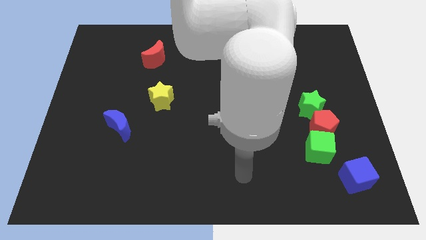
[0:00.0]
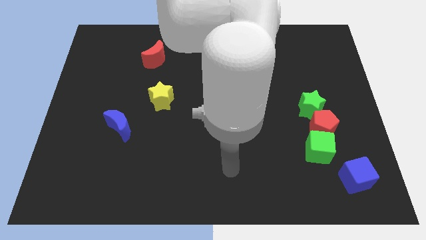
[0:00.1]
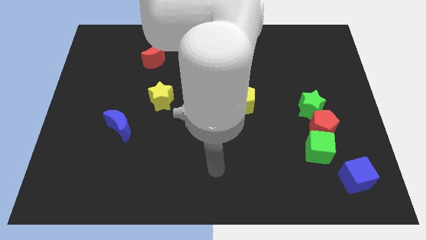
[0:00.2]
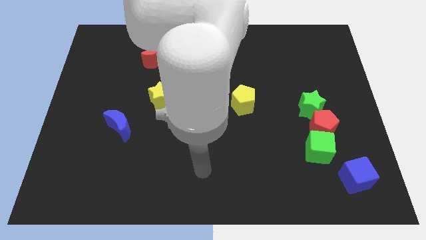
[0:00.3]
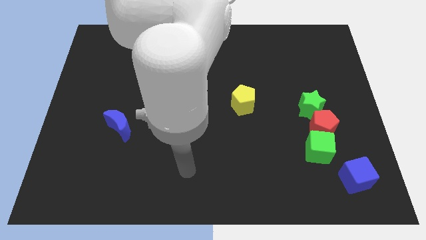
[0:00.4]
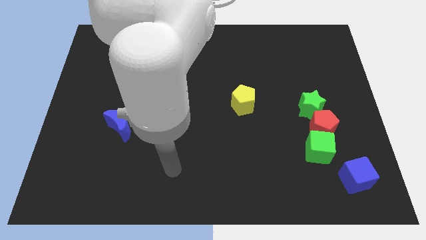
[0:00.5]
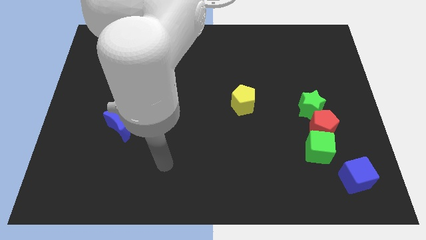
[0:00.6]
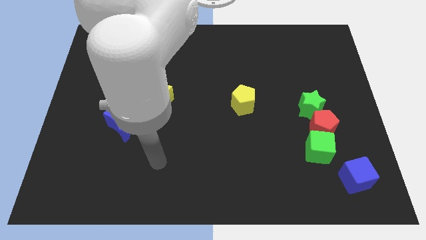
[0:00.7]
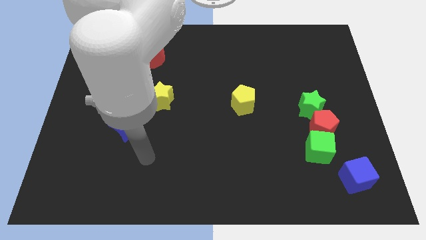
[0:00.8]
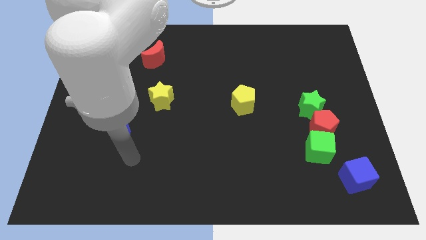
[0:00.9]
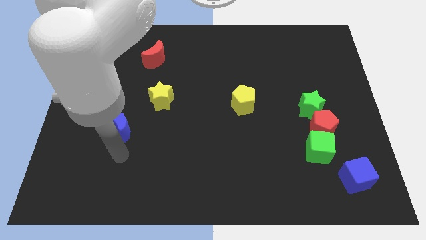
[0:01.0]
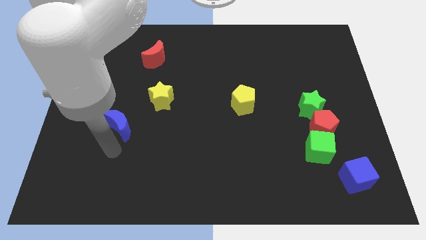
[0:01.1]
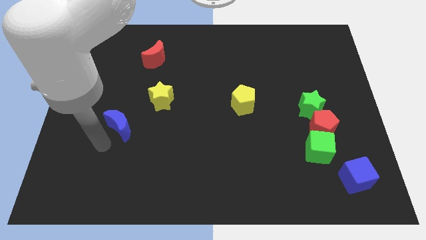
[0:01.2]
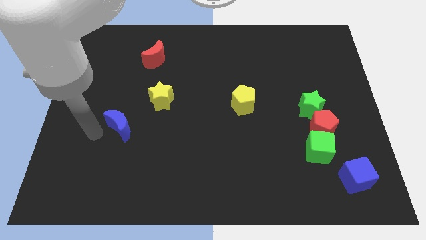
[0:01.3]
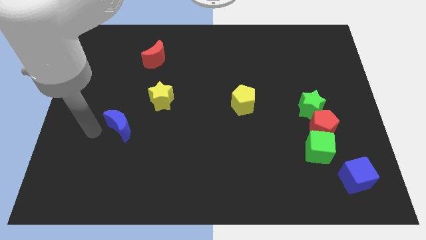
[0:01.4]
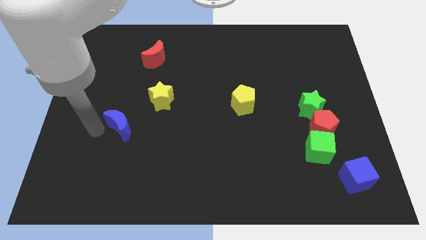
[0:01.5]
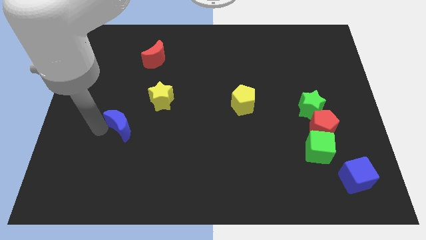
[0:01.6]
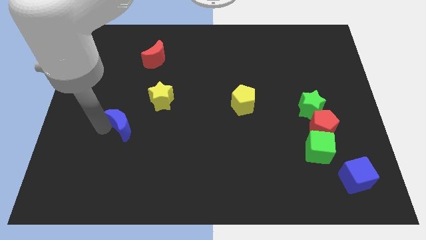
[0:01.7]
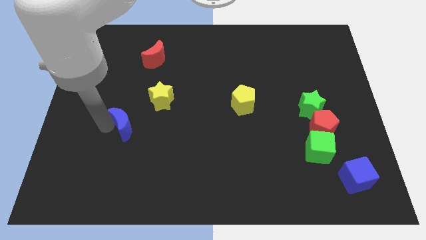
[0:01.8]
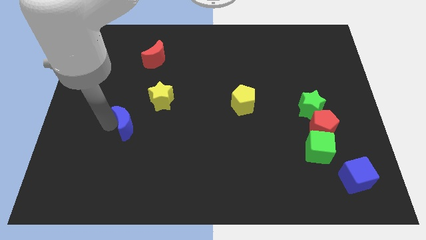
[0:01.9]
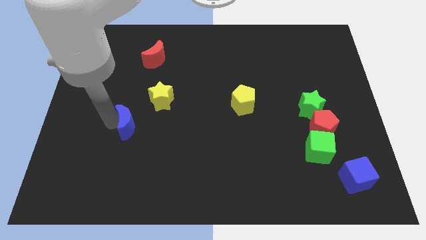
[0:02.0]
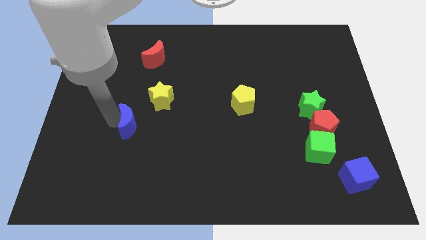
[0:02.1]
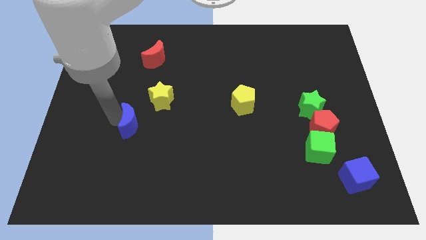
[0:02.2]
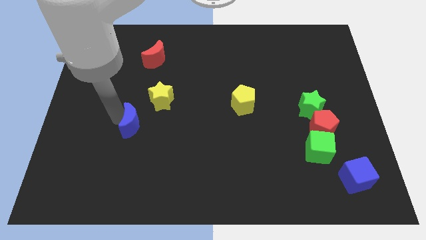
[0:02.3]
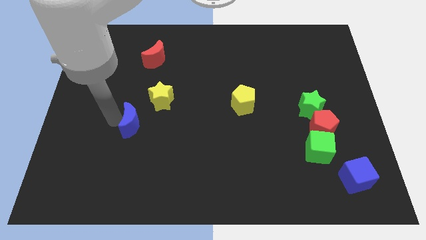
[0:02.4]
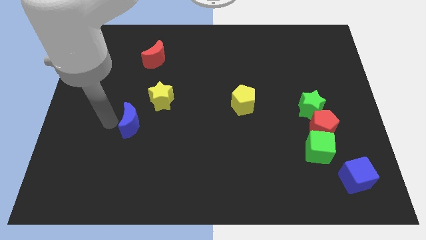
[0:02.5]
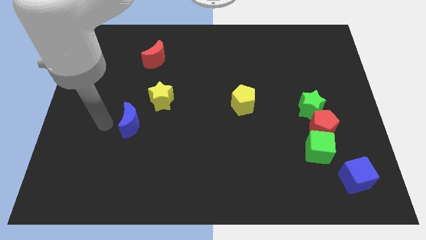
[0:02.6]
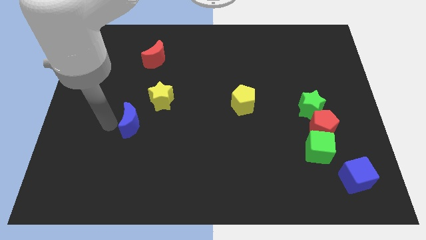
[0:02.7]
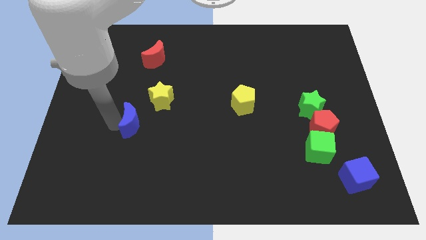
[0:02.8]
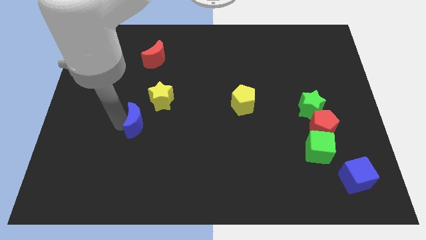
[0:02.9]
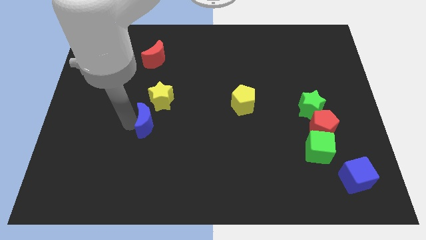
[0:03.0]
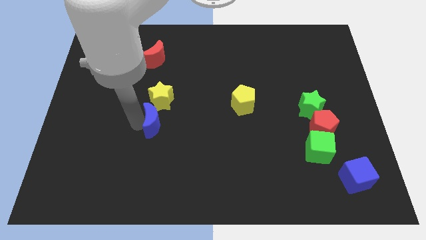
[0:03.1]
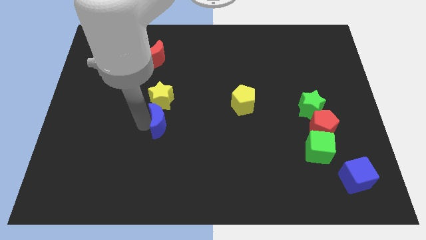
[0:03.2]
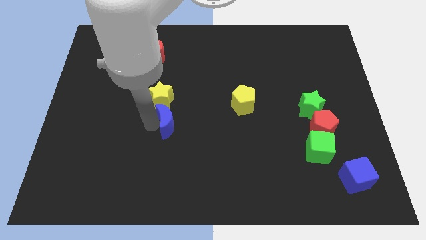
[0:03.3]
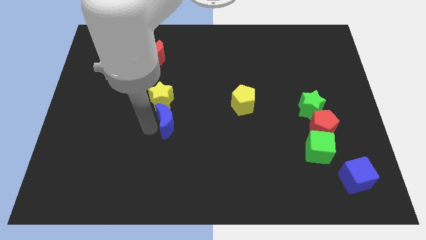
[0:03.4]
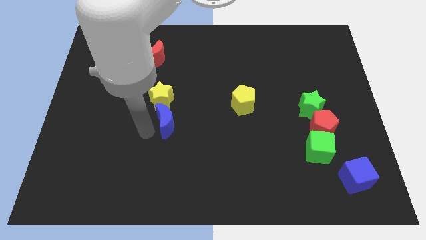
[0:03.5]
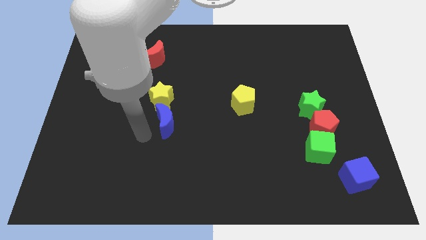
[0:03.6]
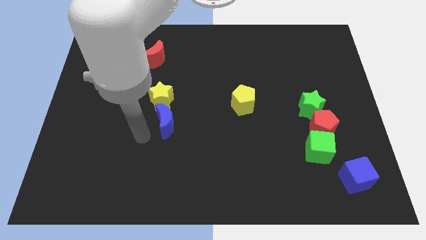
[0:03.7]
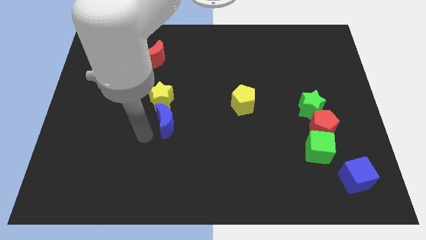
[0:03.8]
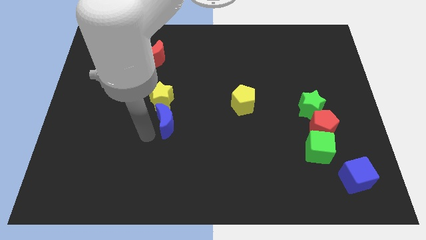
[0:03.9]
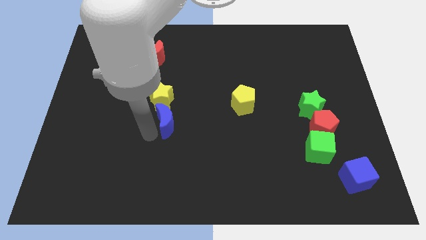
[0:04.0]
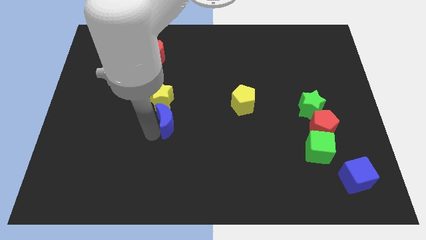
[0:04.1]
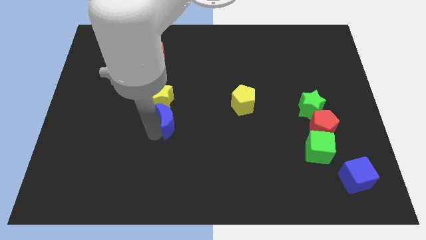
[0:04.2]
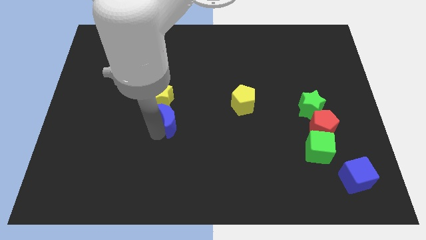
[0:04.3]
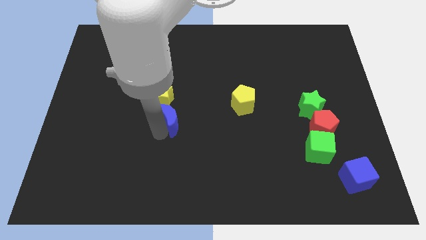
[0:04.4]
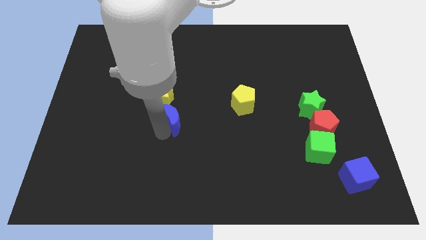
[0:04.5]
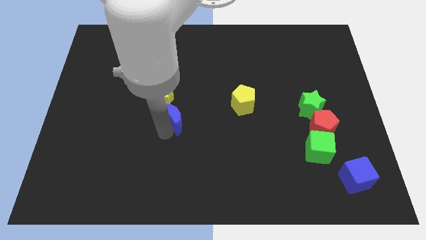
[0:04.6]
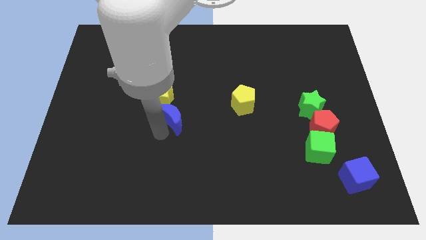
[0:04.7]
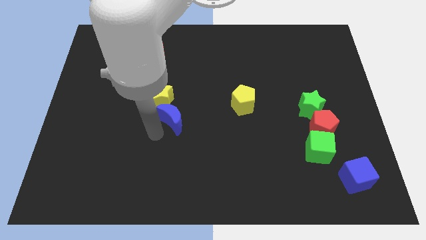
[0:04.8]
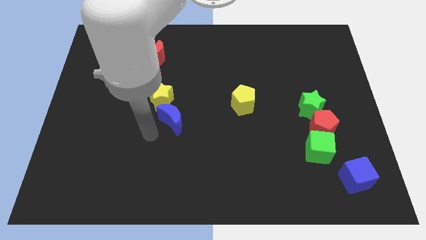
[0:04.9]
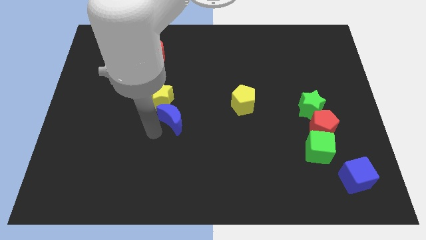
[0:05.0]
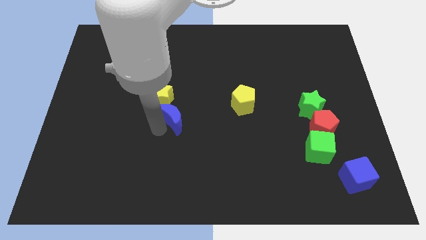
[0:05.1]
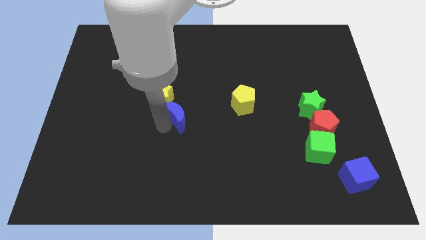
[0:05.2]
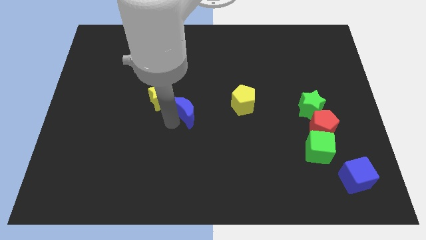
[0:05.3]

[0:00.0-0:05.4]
push the blue moon just right of the yellow star

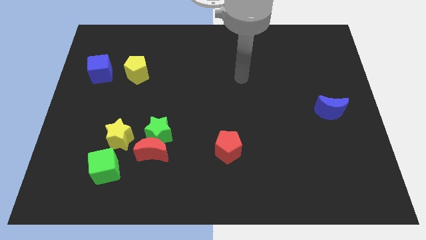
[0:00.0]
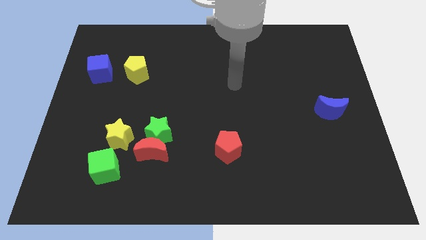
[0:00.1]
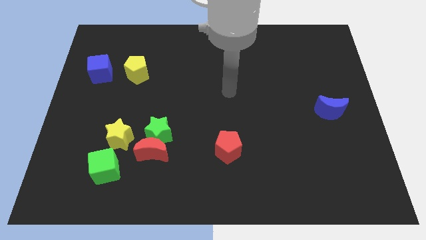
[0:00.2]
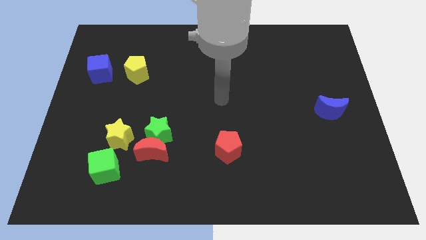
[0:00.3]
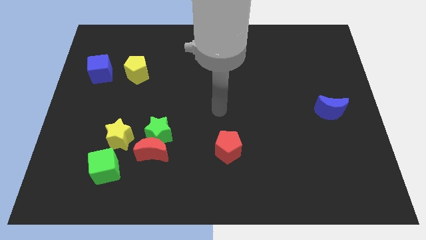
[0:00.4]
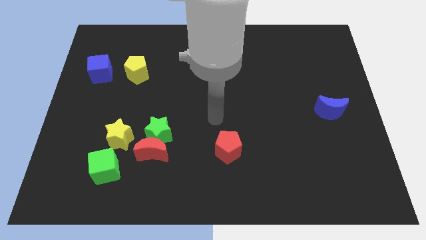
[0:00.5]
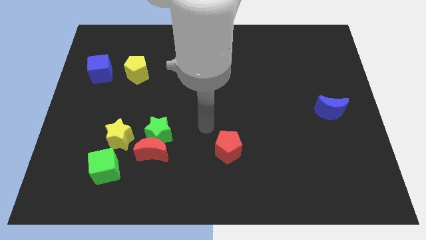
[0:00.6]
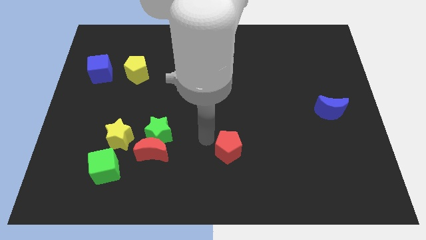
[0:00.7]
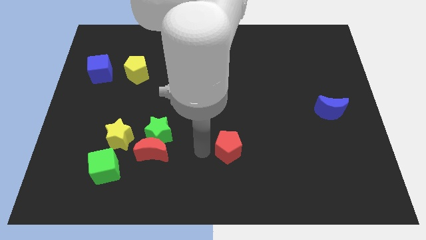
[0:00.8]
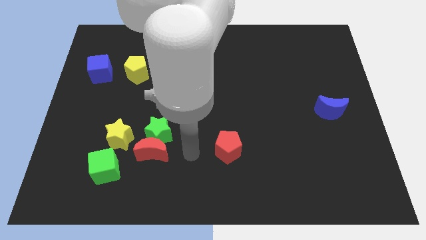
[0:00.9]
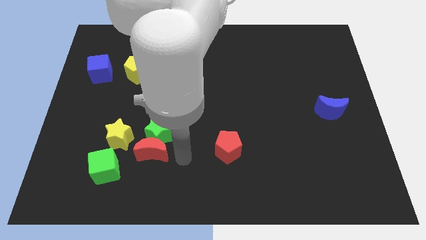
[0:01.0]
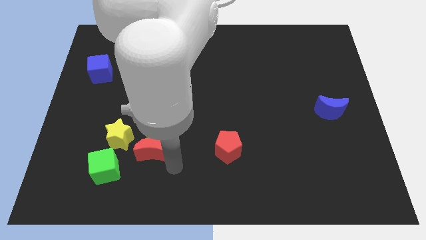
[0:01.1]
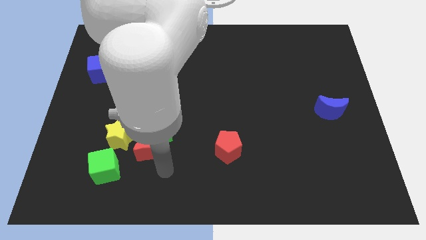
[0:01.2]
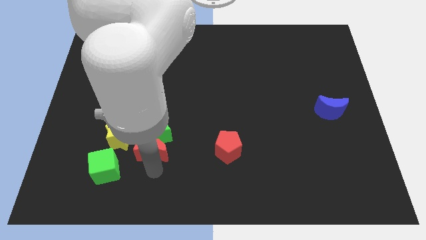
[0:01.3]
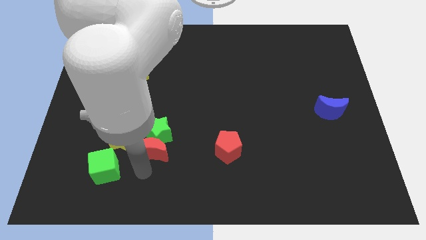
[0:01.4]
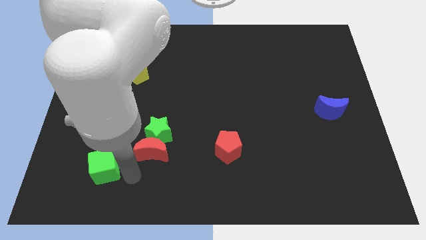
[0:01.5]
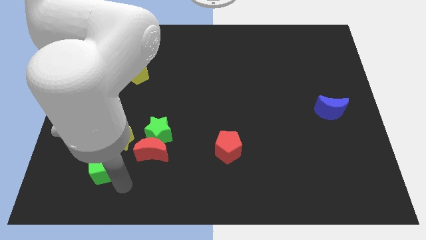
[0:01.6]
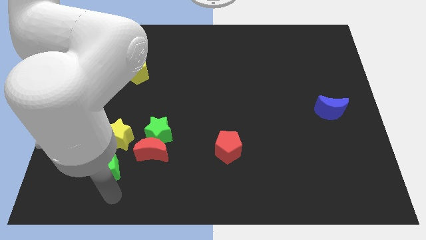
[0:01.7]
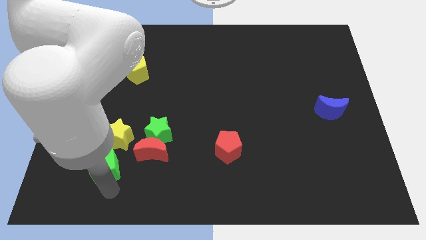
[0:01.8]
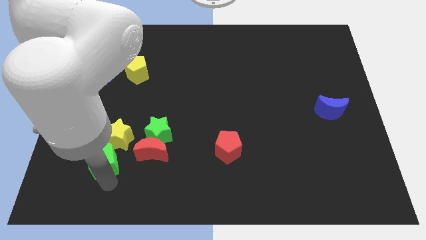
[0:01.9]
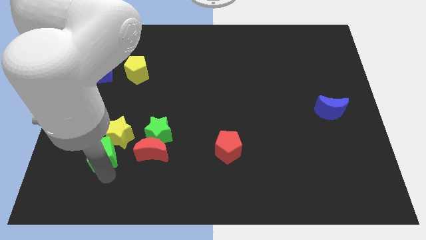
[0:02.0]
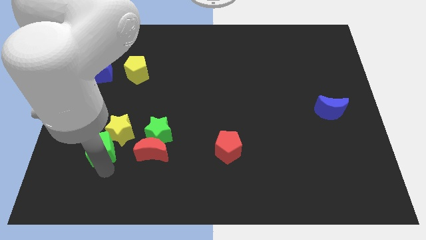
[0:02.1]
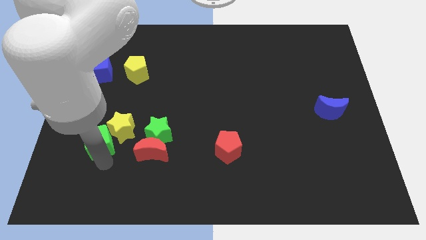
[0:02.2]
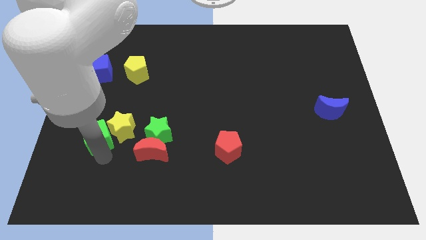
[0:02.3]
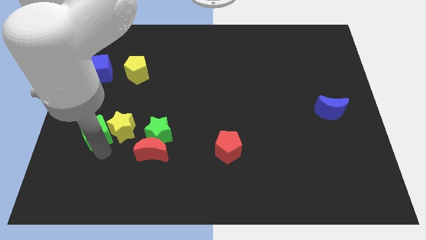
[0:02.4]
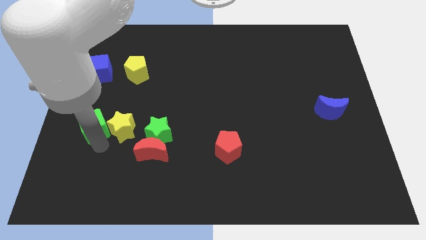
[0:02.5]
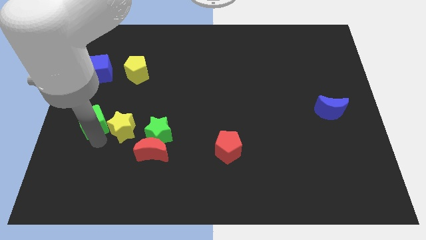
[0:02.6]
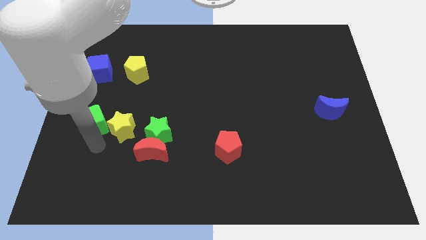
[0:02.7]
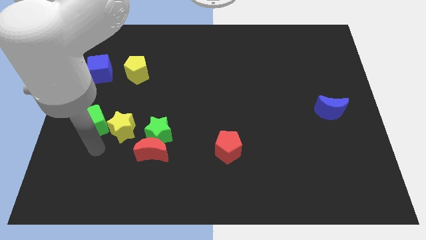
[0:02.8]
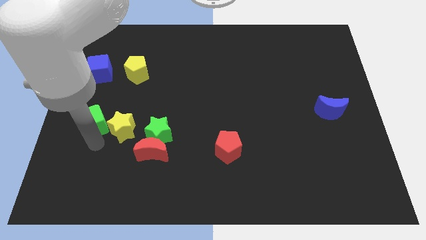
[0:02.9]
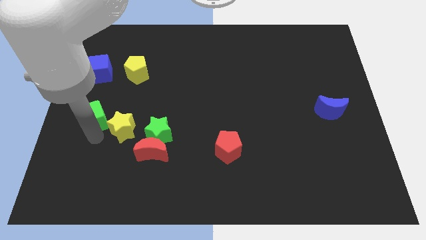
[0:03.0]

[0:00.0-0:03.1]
slide the green cube below the blue cube
